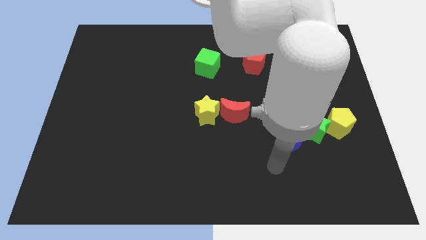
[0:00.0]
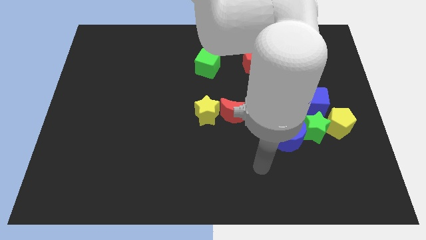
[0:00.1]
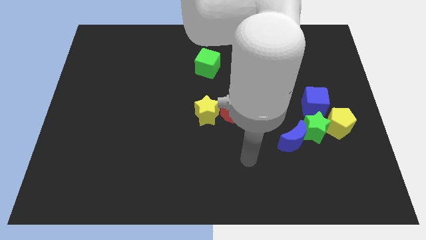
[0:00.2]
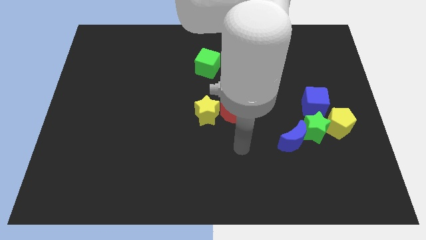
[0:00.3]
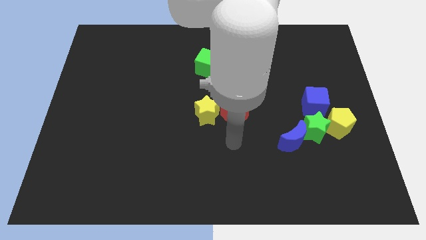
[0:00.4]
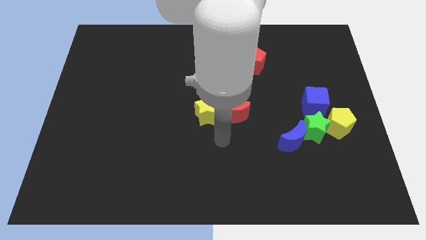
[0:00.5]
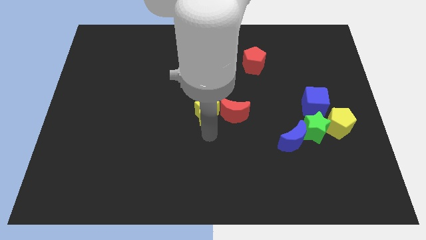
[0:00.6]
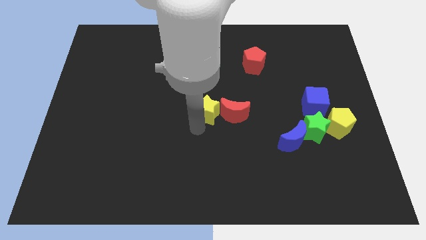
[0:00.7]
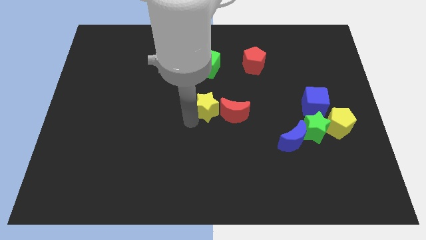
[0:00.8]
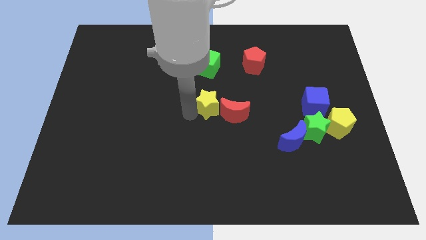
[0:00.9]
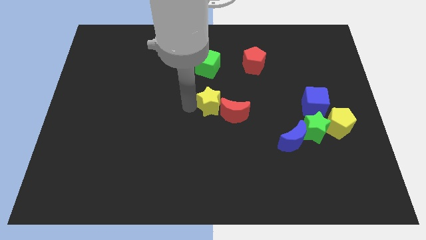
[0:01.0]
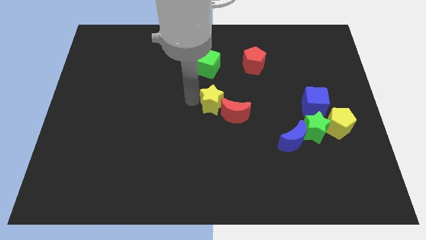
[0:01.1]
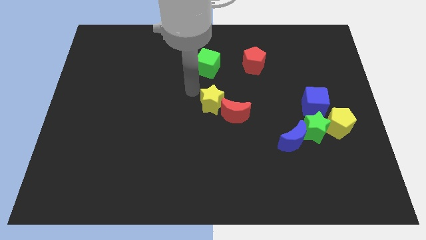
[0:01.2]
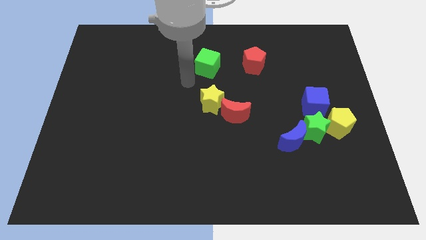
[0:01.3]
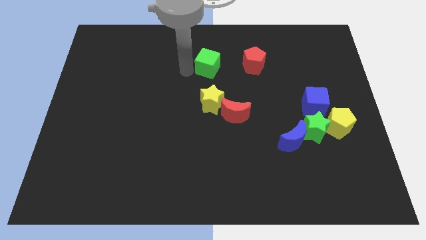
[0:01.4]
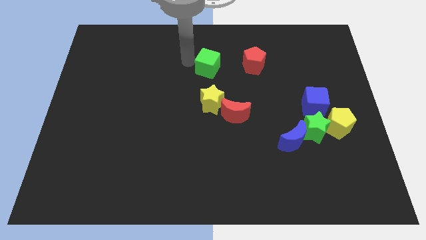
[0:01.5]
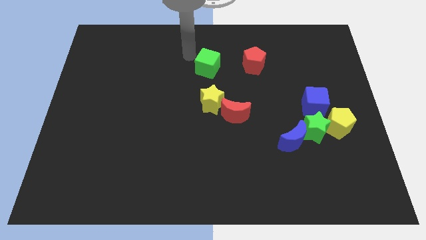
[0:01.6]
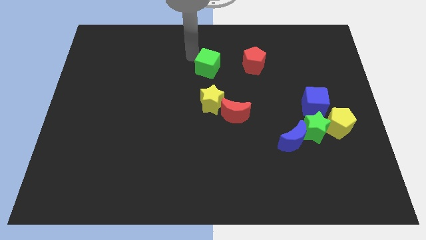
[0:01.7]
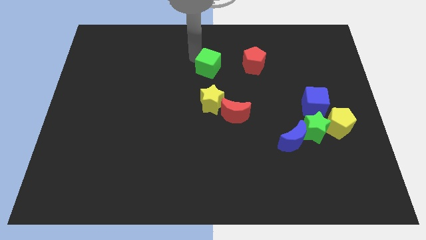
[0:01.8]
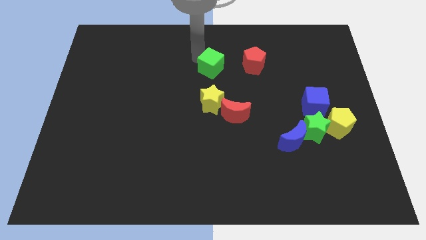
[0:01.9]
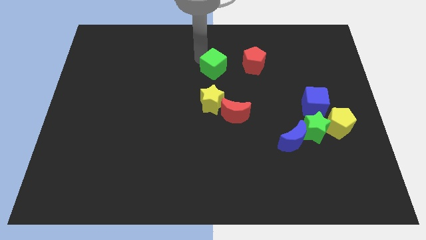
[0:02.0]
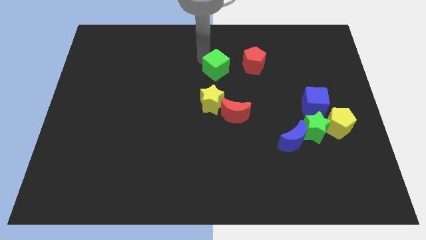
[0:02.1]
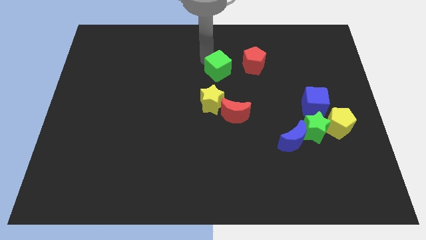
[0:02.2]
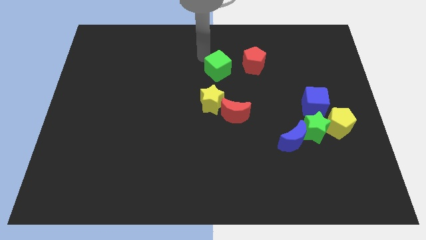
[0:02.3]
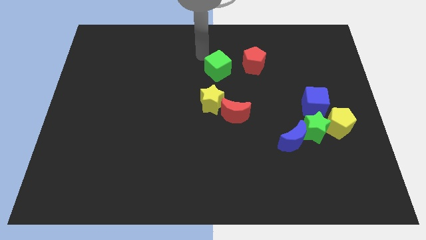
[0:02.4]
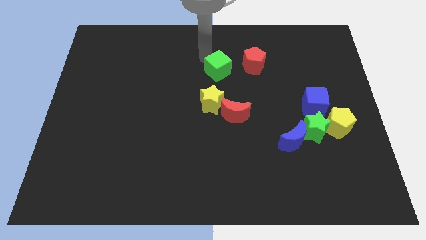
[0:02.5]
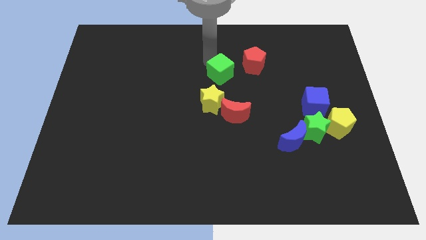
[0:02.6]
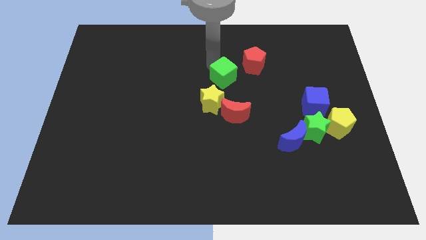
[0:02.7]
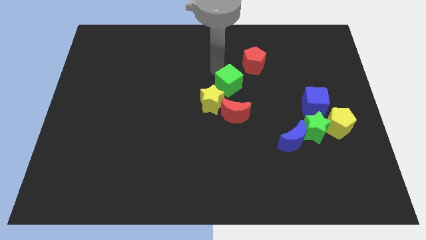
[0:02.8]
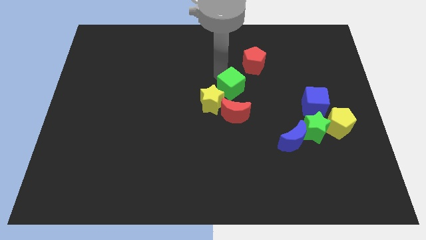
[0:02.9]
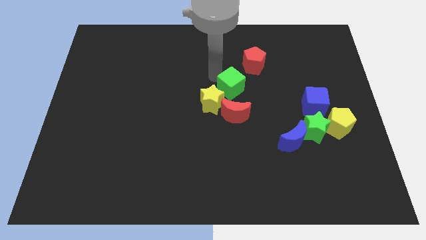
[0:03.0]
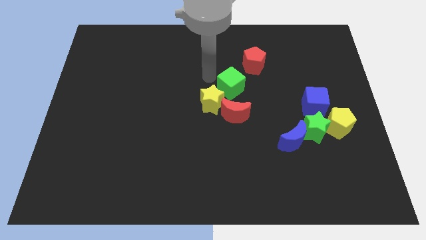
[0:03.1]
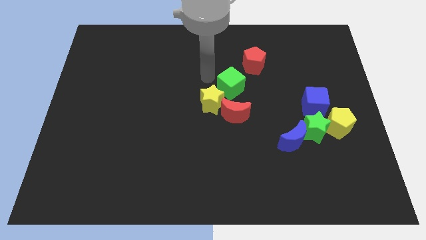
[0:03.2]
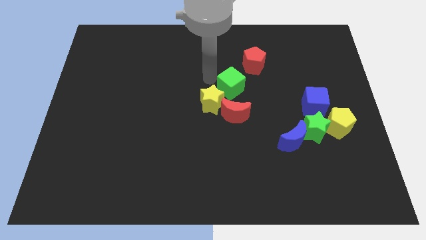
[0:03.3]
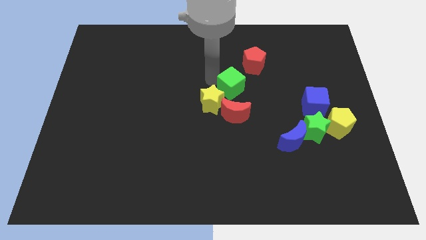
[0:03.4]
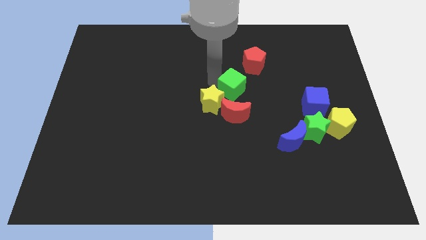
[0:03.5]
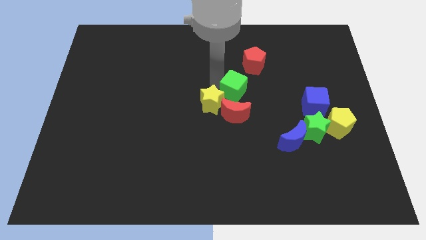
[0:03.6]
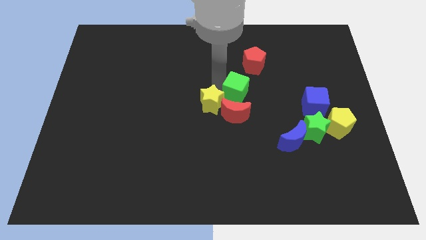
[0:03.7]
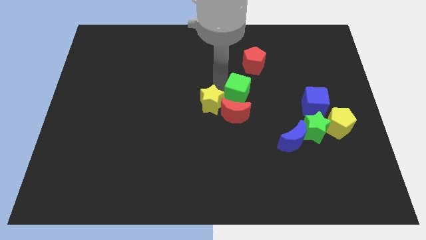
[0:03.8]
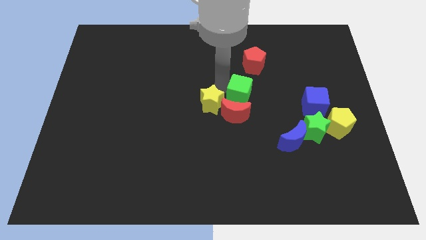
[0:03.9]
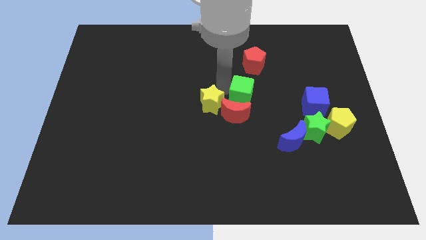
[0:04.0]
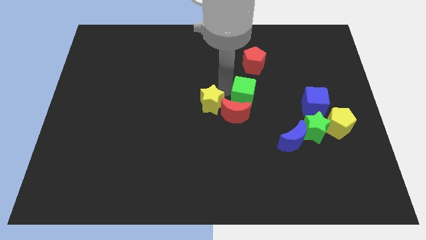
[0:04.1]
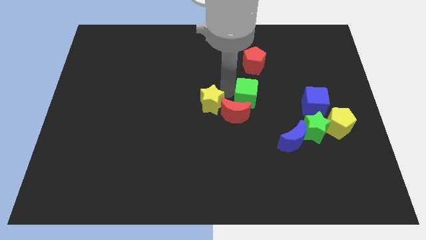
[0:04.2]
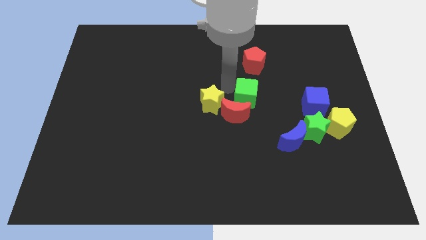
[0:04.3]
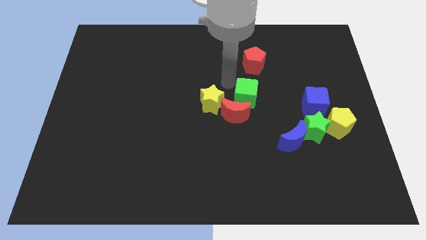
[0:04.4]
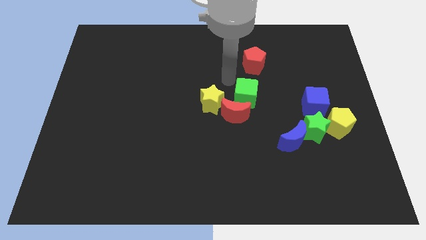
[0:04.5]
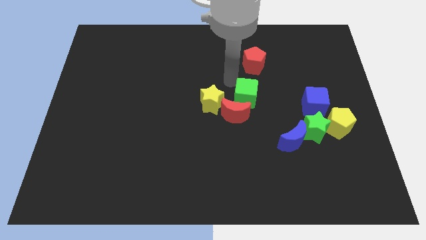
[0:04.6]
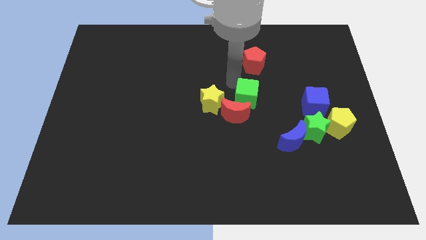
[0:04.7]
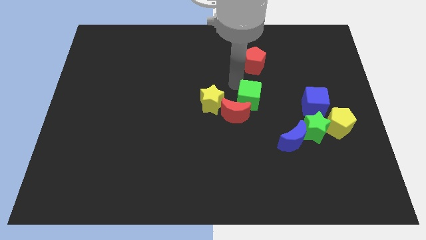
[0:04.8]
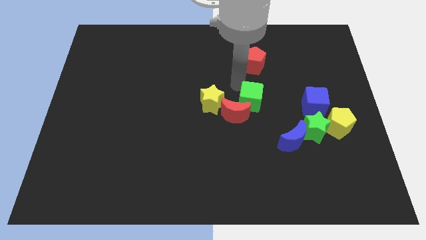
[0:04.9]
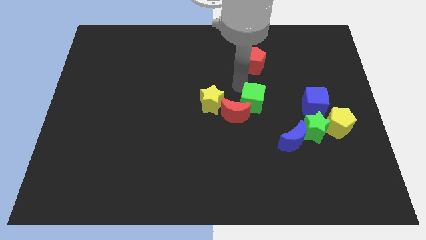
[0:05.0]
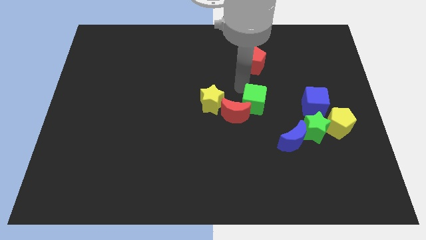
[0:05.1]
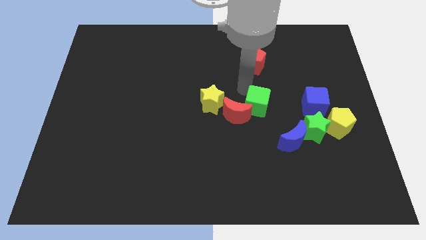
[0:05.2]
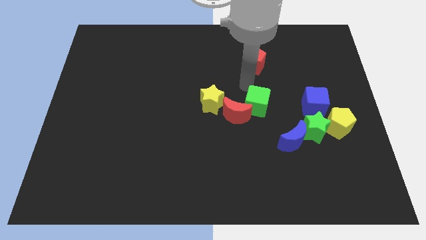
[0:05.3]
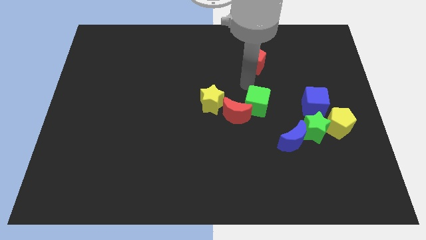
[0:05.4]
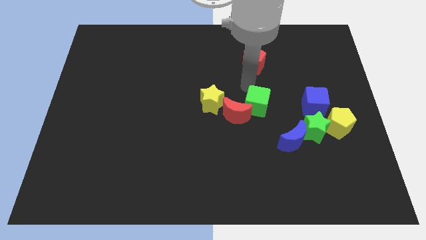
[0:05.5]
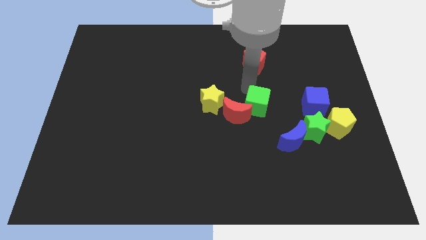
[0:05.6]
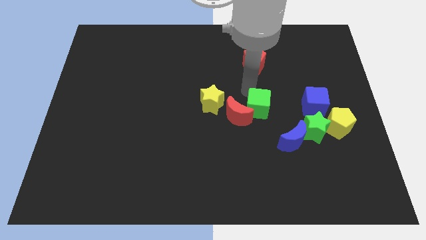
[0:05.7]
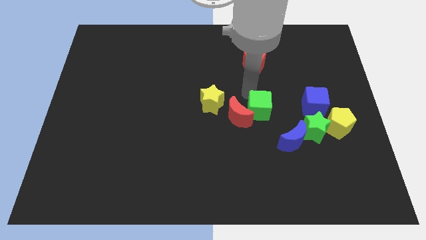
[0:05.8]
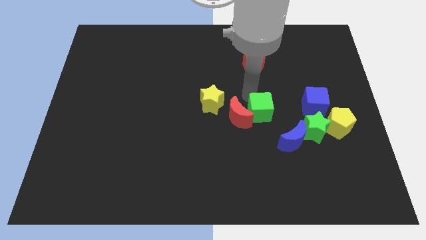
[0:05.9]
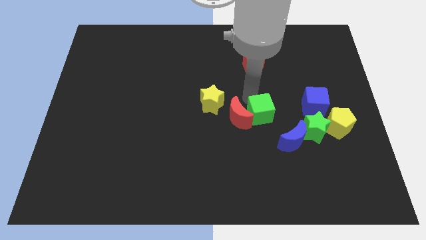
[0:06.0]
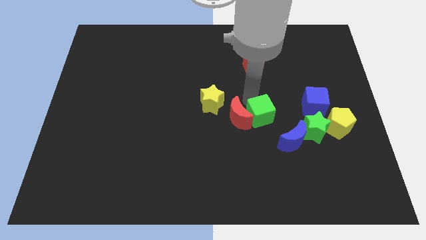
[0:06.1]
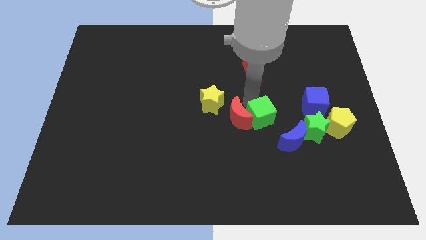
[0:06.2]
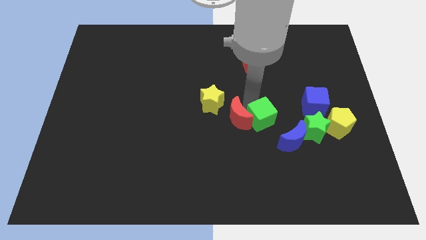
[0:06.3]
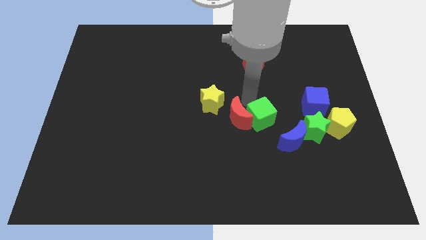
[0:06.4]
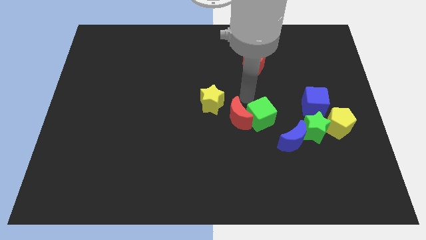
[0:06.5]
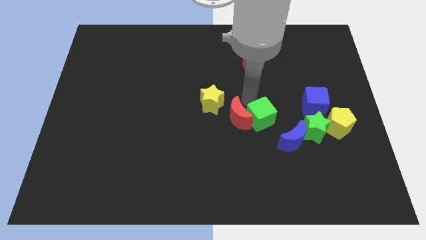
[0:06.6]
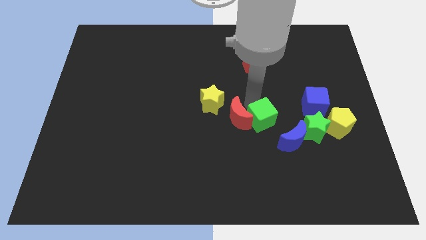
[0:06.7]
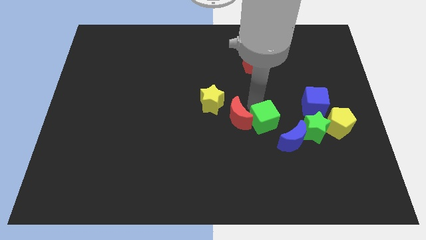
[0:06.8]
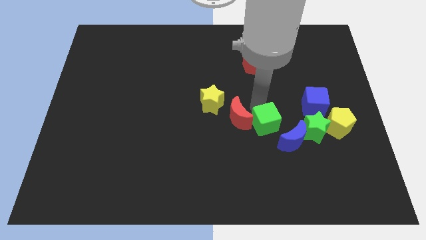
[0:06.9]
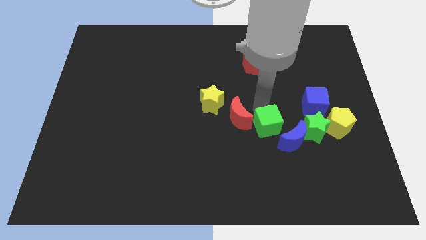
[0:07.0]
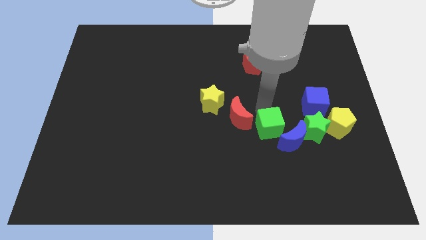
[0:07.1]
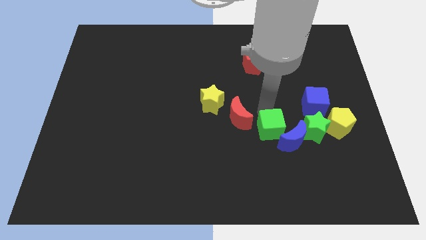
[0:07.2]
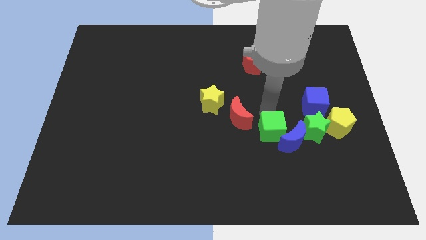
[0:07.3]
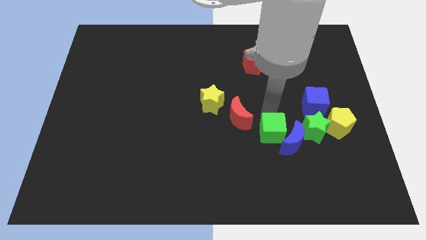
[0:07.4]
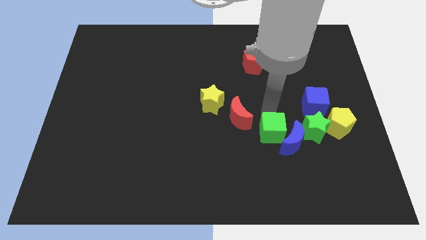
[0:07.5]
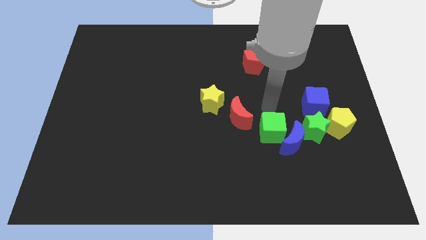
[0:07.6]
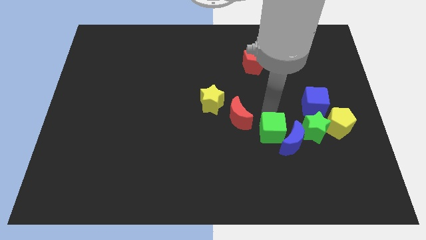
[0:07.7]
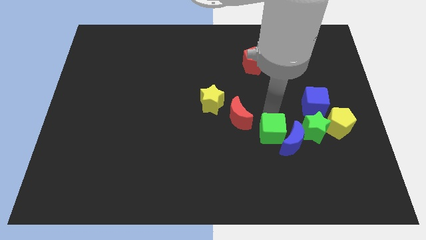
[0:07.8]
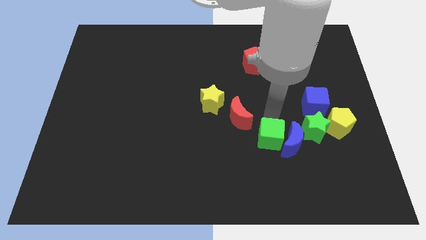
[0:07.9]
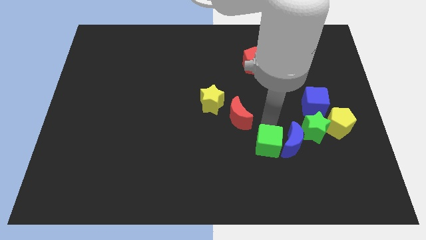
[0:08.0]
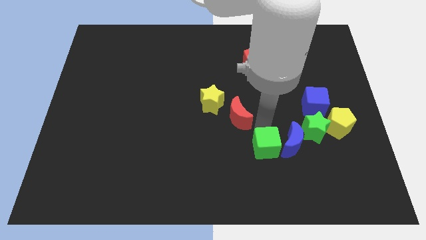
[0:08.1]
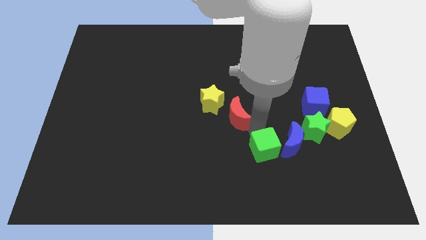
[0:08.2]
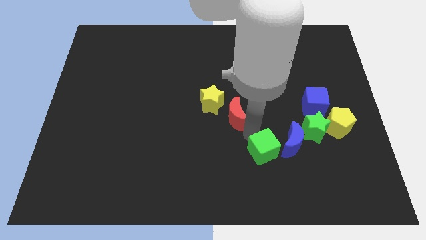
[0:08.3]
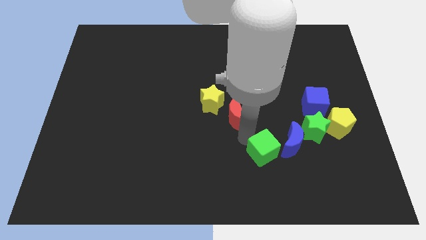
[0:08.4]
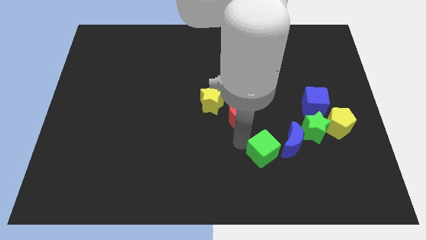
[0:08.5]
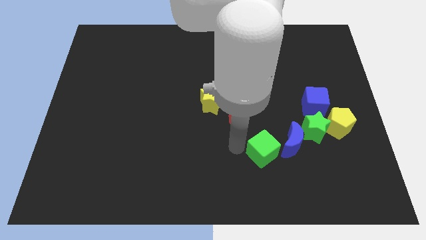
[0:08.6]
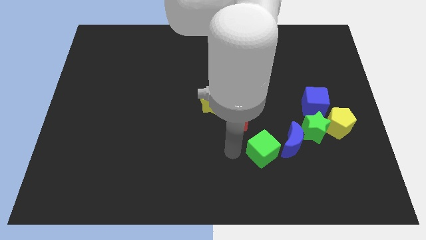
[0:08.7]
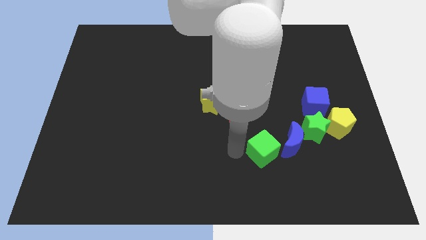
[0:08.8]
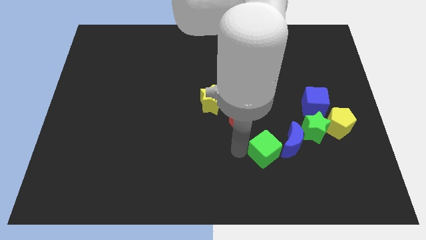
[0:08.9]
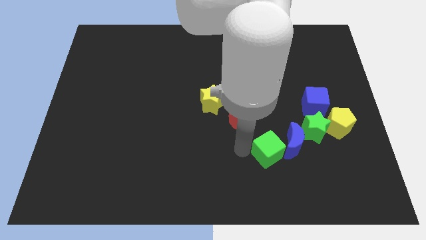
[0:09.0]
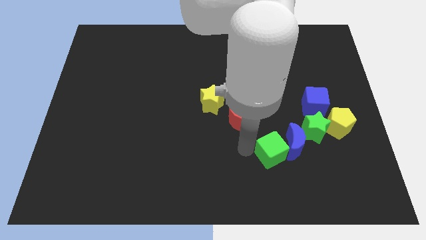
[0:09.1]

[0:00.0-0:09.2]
move the green cube to the bottom left of the green star
